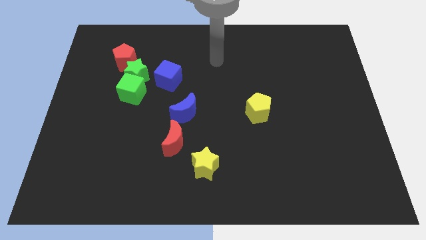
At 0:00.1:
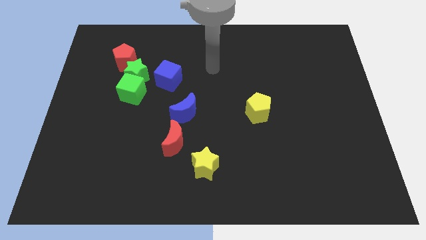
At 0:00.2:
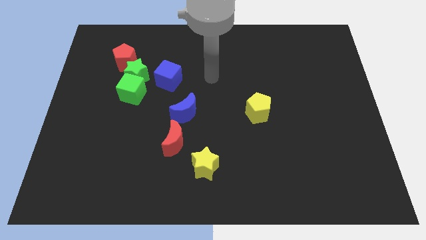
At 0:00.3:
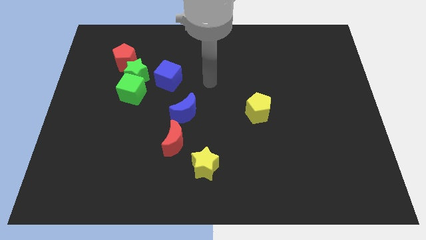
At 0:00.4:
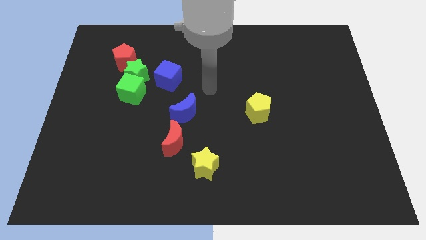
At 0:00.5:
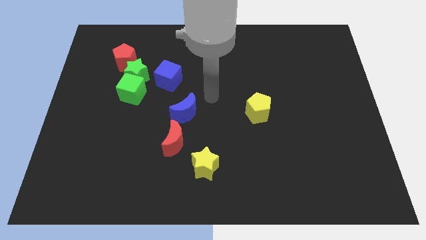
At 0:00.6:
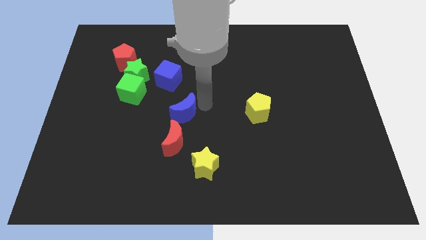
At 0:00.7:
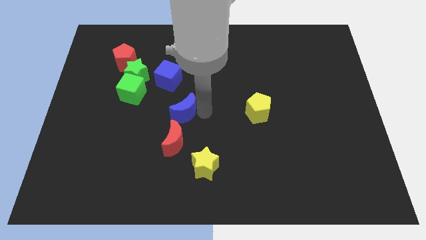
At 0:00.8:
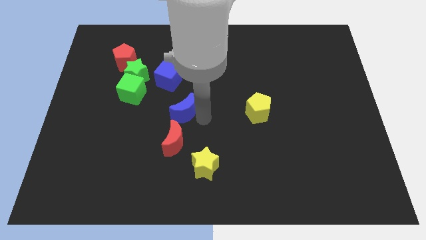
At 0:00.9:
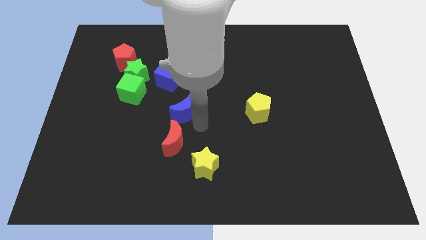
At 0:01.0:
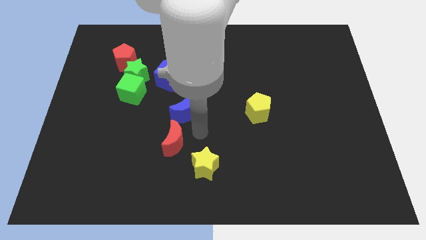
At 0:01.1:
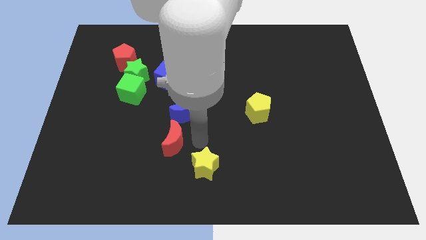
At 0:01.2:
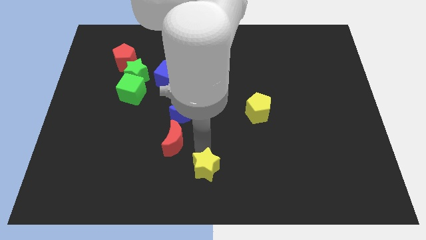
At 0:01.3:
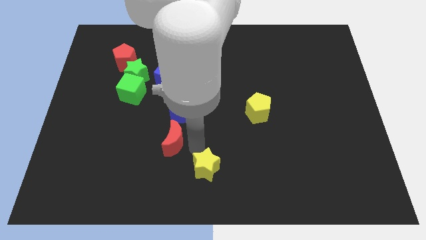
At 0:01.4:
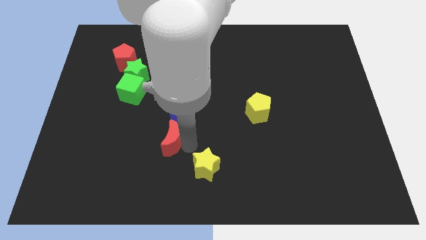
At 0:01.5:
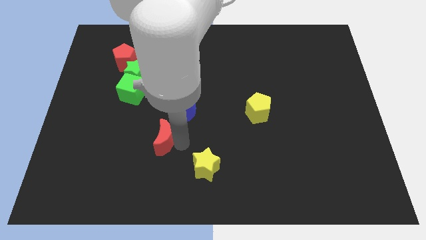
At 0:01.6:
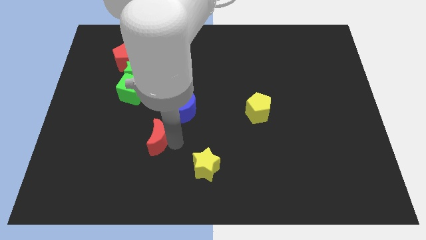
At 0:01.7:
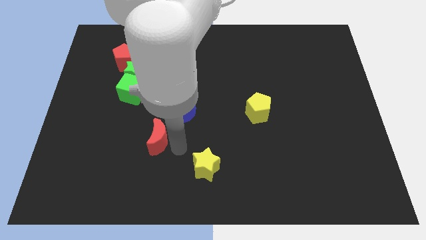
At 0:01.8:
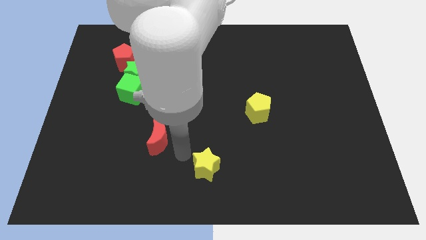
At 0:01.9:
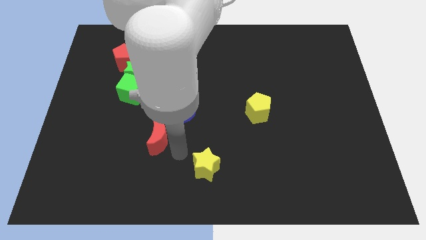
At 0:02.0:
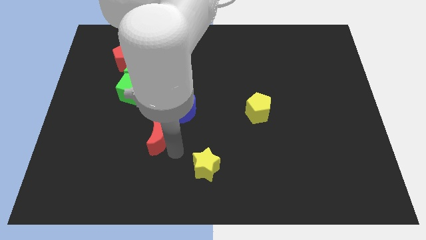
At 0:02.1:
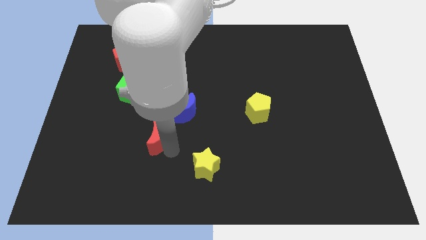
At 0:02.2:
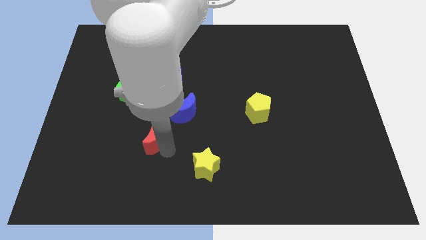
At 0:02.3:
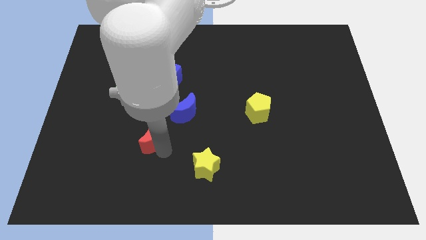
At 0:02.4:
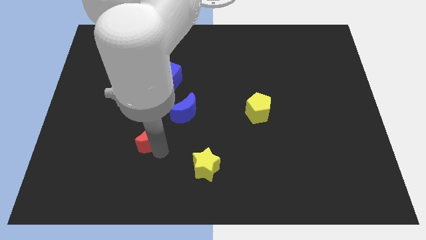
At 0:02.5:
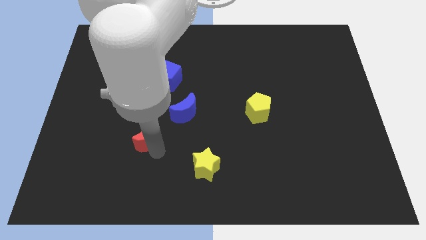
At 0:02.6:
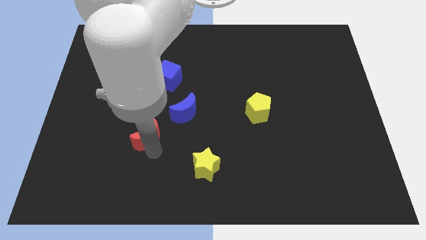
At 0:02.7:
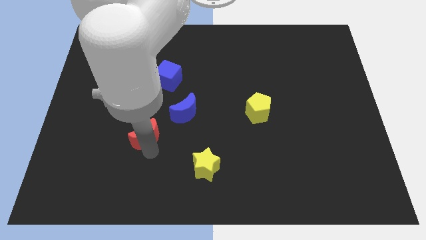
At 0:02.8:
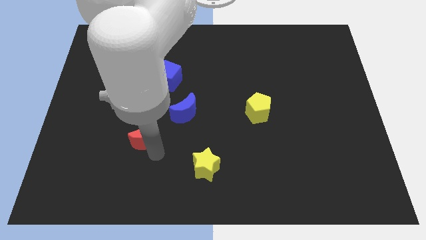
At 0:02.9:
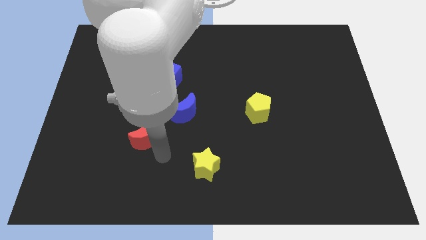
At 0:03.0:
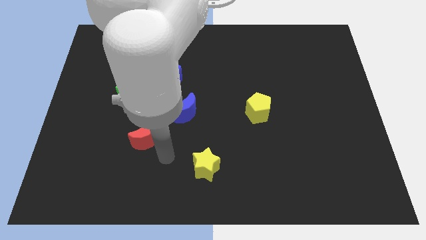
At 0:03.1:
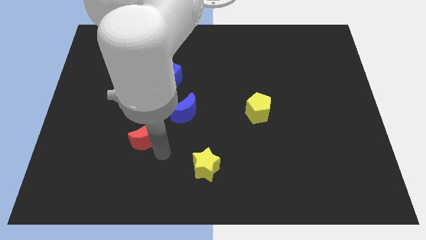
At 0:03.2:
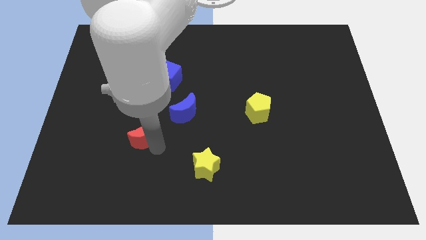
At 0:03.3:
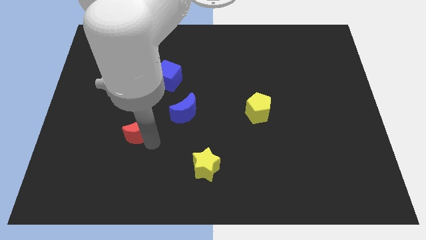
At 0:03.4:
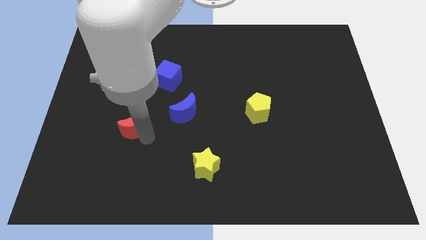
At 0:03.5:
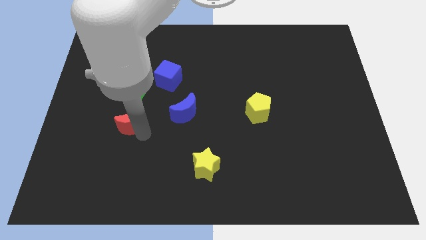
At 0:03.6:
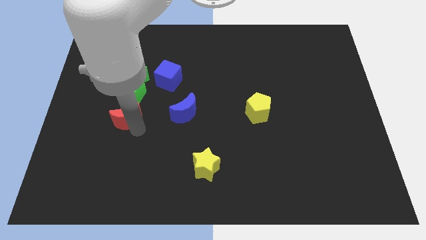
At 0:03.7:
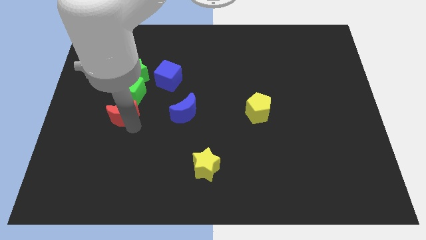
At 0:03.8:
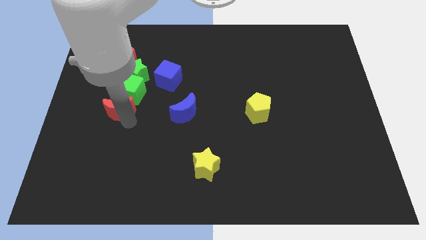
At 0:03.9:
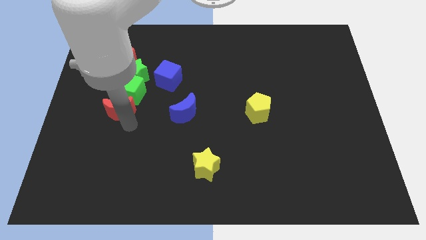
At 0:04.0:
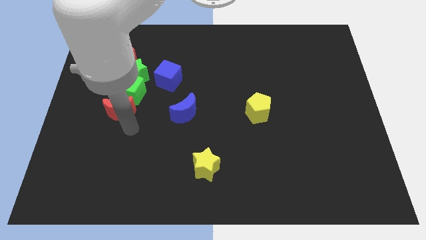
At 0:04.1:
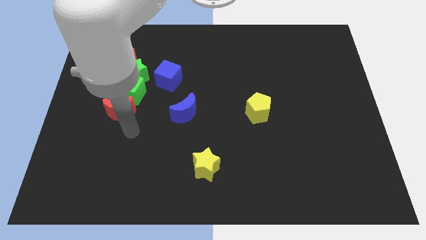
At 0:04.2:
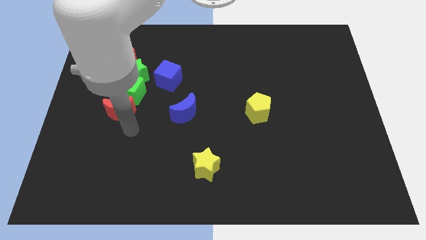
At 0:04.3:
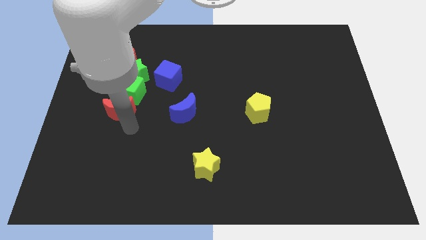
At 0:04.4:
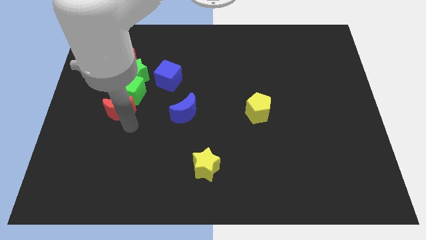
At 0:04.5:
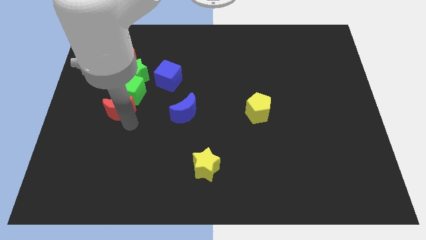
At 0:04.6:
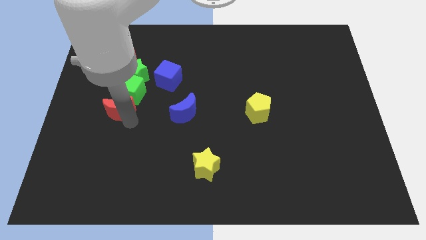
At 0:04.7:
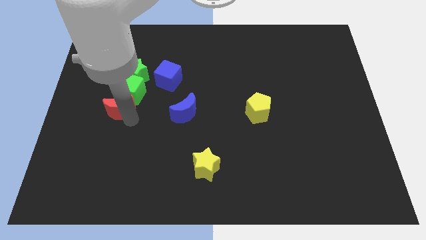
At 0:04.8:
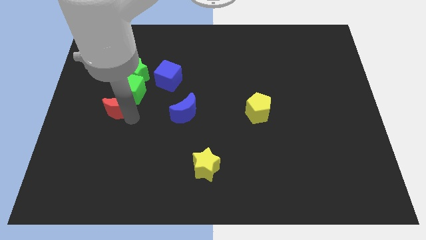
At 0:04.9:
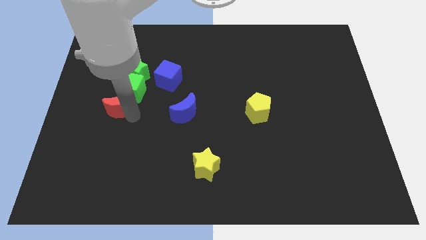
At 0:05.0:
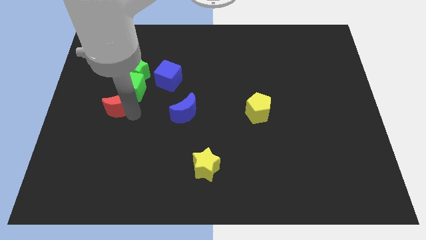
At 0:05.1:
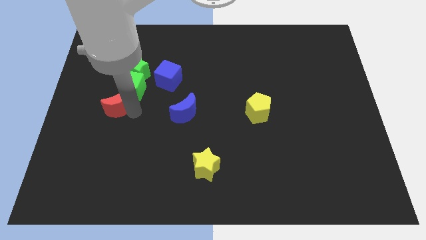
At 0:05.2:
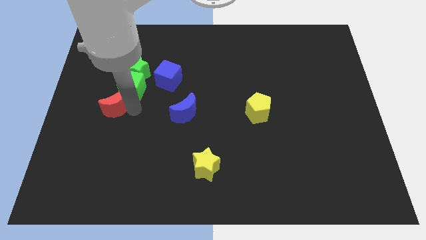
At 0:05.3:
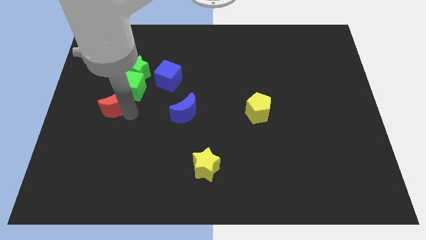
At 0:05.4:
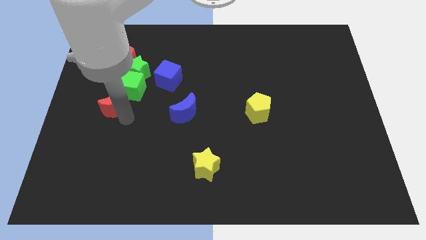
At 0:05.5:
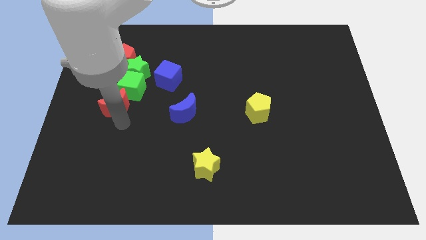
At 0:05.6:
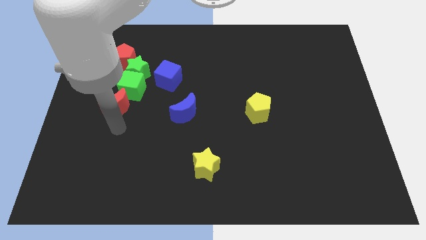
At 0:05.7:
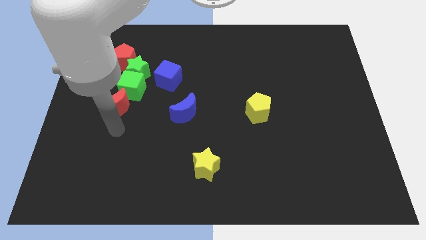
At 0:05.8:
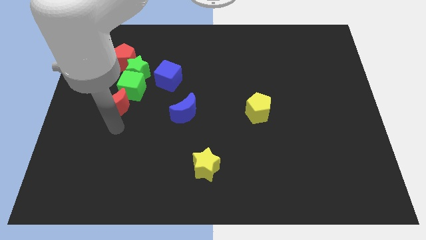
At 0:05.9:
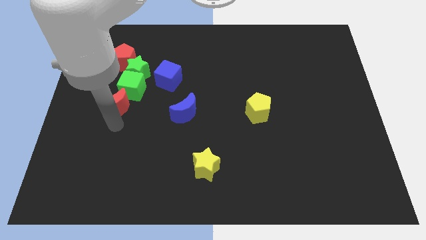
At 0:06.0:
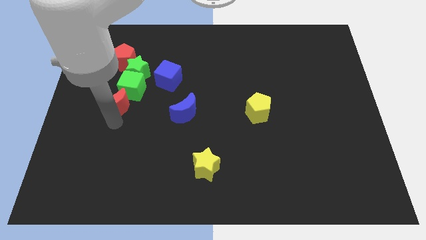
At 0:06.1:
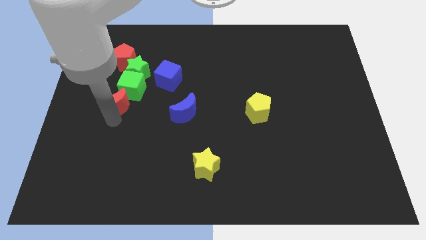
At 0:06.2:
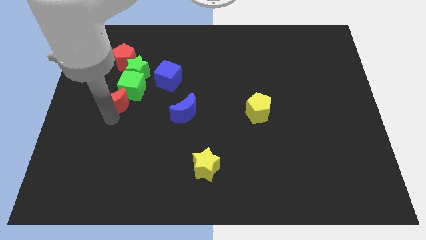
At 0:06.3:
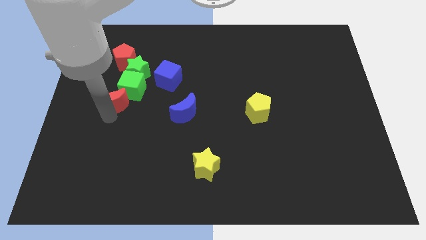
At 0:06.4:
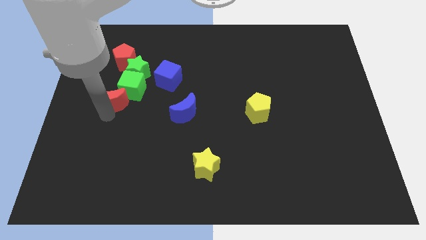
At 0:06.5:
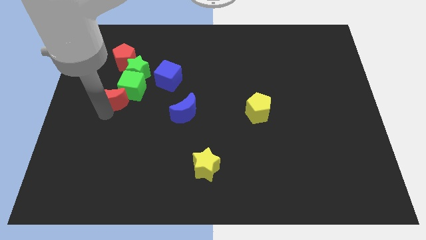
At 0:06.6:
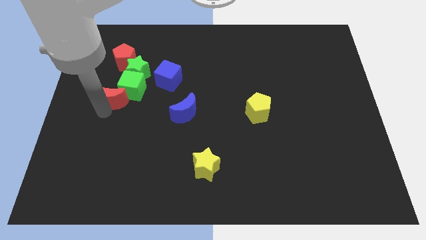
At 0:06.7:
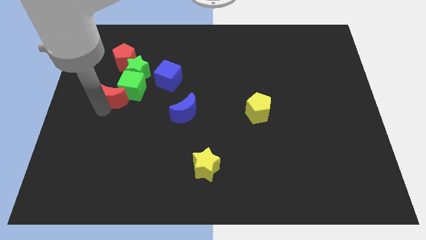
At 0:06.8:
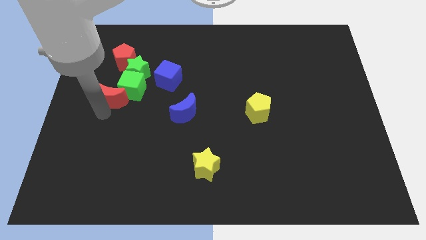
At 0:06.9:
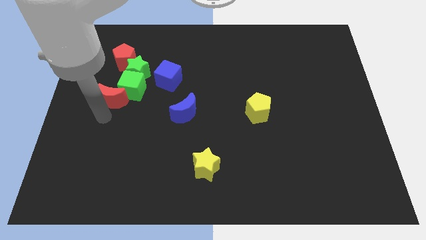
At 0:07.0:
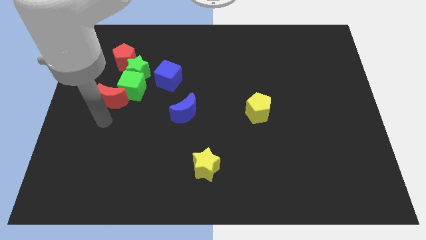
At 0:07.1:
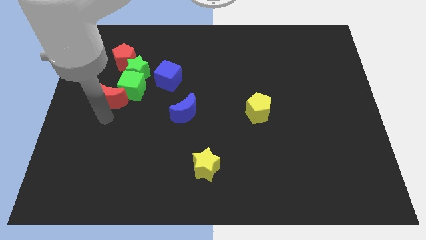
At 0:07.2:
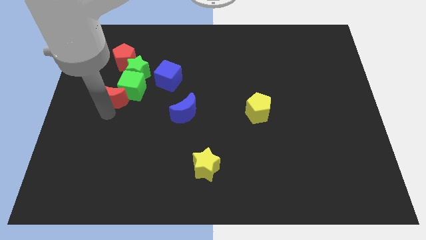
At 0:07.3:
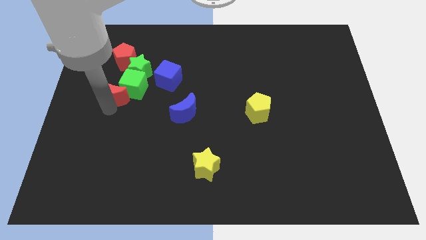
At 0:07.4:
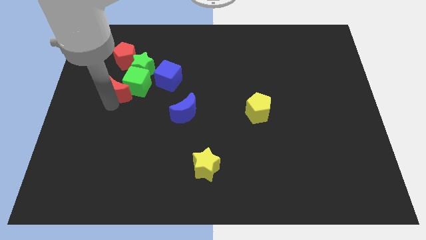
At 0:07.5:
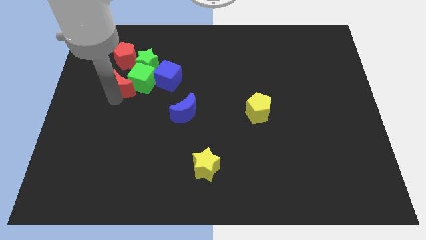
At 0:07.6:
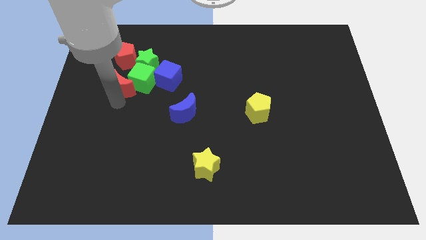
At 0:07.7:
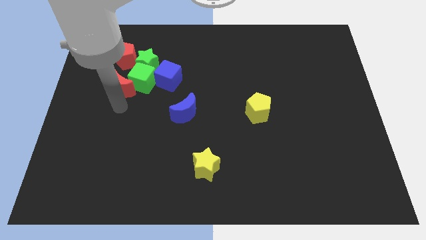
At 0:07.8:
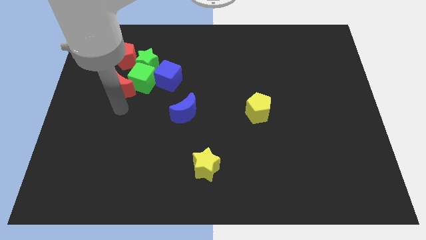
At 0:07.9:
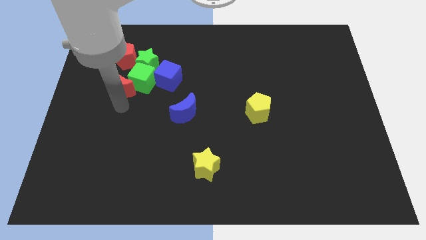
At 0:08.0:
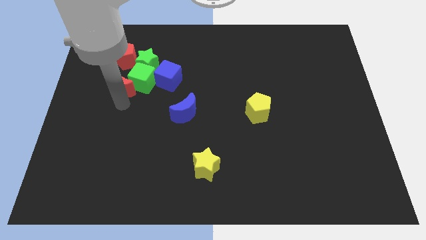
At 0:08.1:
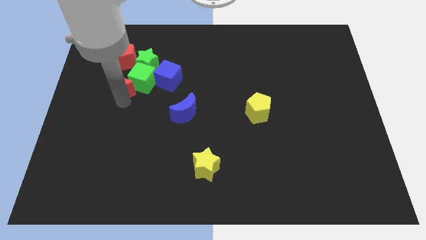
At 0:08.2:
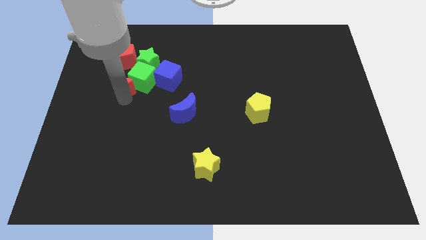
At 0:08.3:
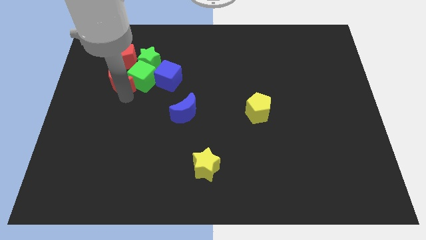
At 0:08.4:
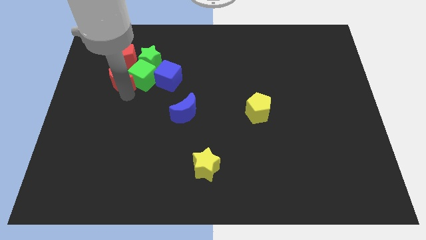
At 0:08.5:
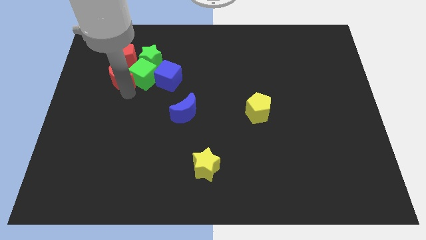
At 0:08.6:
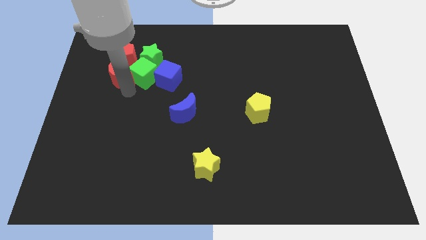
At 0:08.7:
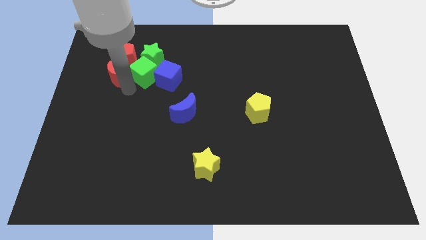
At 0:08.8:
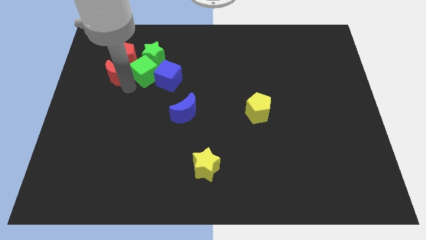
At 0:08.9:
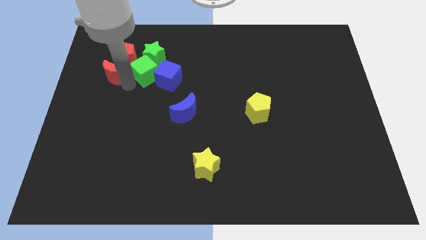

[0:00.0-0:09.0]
move the red moon next to the red pentagon
